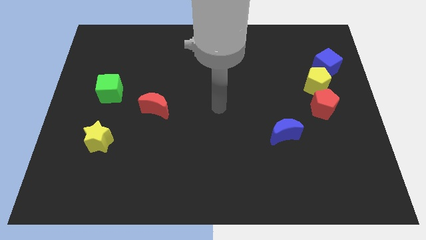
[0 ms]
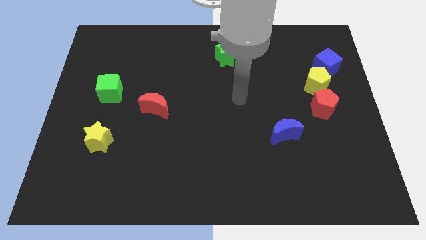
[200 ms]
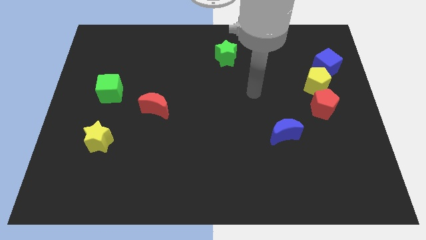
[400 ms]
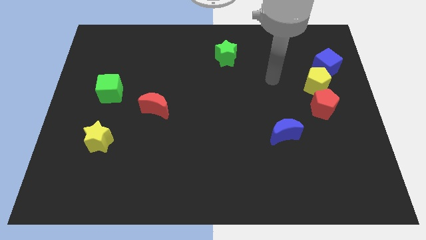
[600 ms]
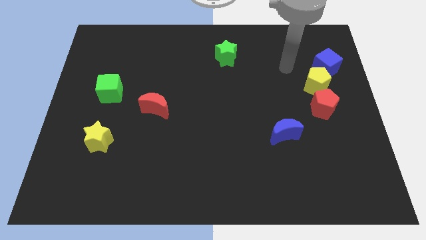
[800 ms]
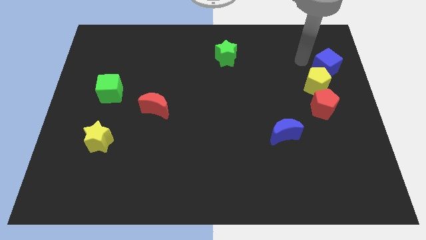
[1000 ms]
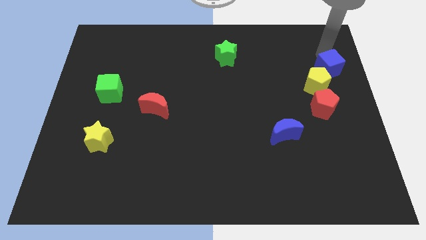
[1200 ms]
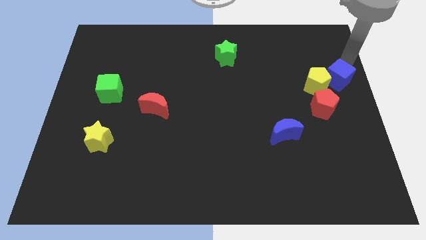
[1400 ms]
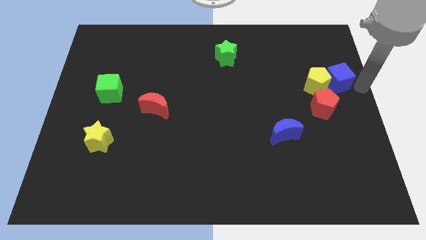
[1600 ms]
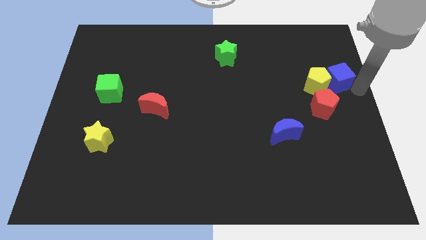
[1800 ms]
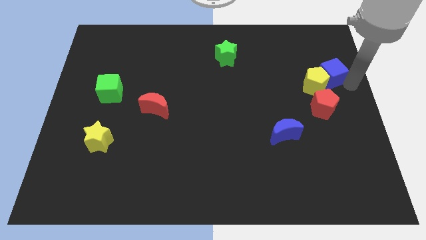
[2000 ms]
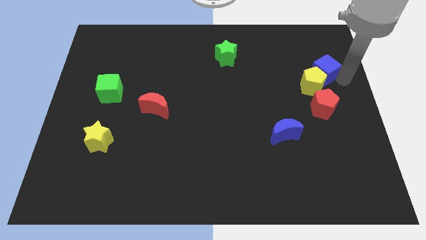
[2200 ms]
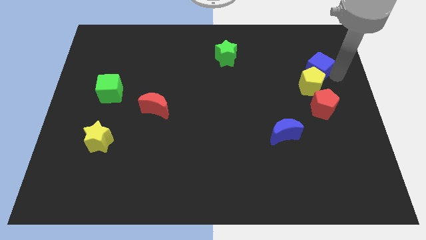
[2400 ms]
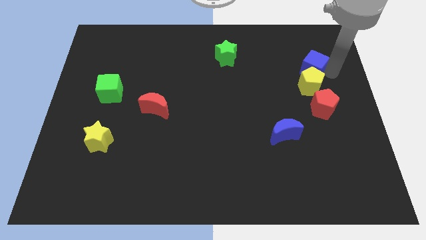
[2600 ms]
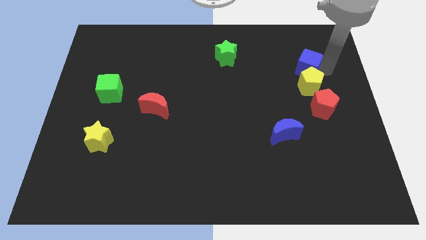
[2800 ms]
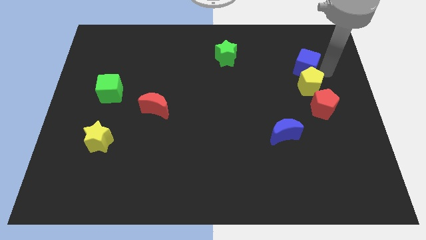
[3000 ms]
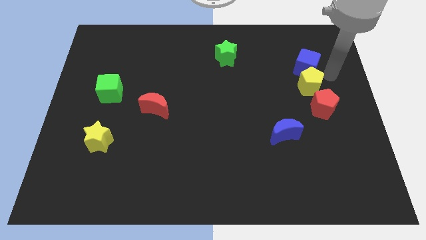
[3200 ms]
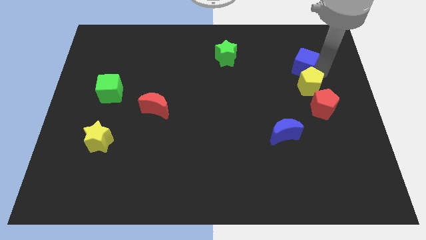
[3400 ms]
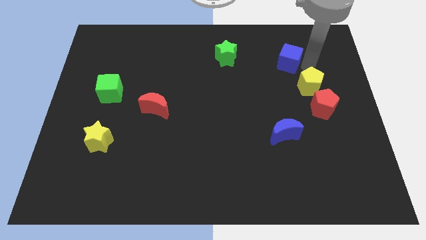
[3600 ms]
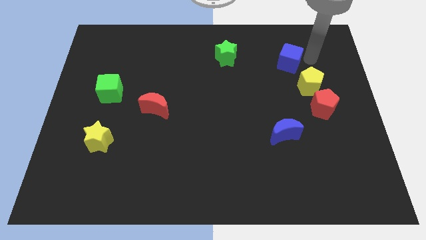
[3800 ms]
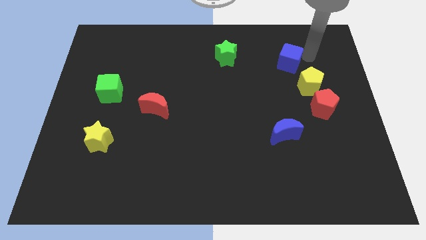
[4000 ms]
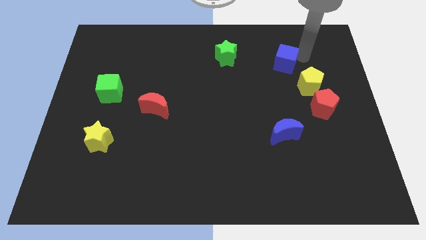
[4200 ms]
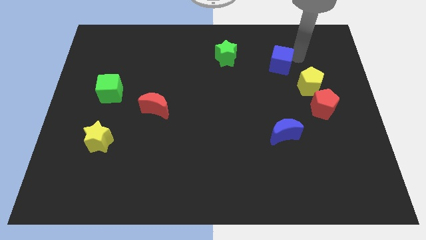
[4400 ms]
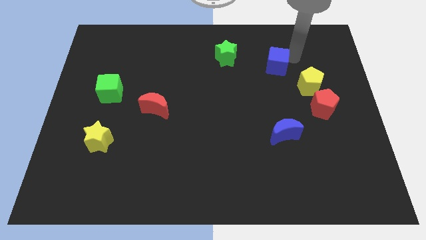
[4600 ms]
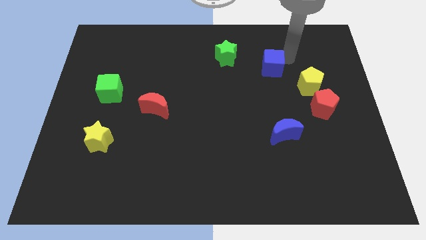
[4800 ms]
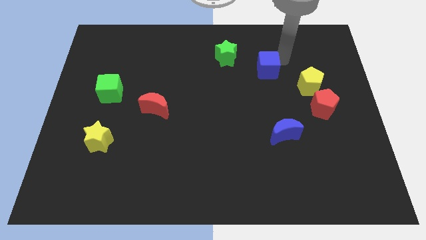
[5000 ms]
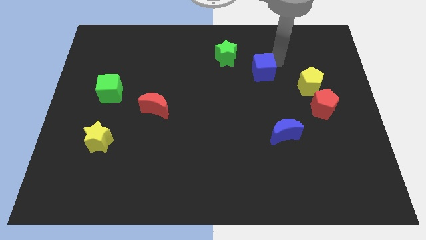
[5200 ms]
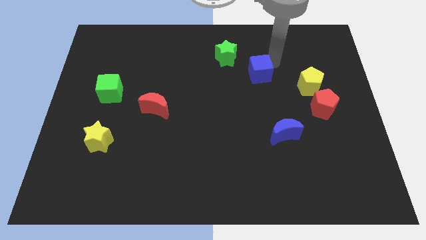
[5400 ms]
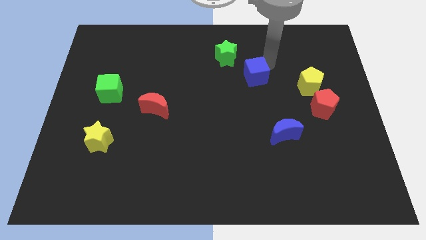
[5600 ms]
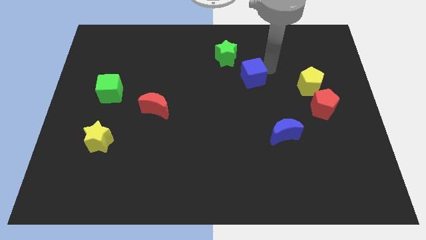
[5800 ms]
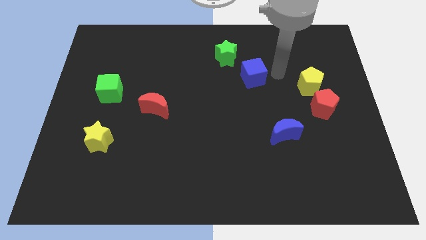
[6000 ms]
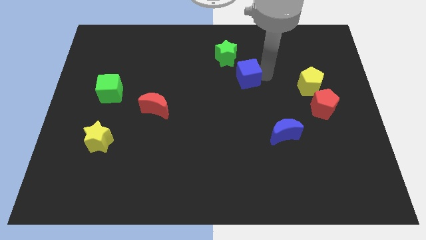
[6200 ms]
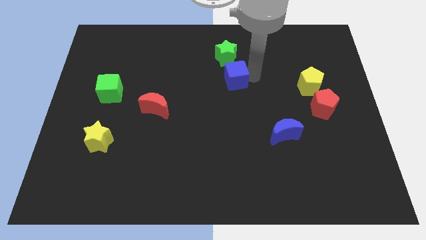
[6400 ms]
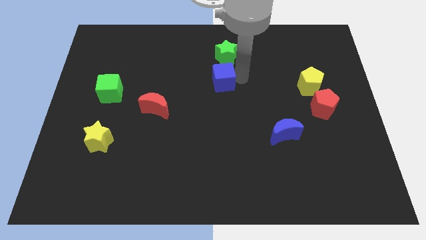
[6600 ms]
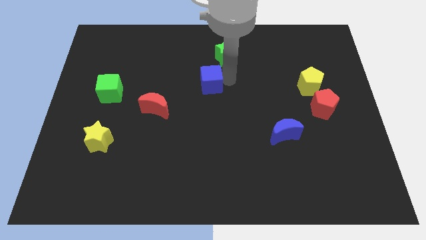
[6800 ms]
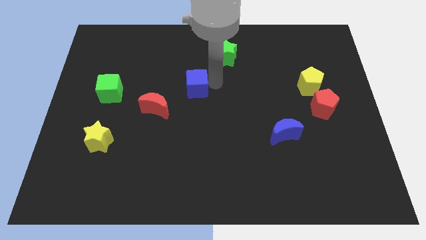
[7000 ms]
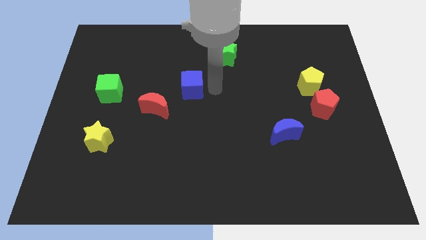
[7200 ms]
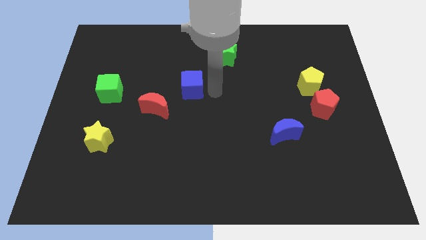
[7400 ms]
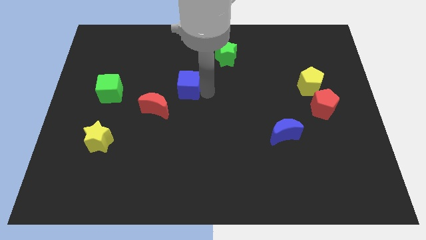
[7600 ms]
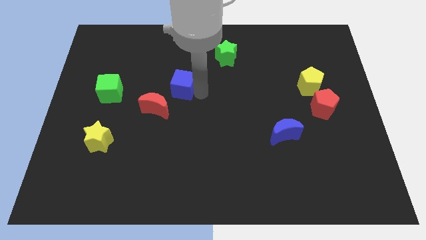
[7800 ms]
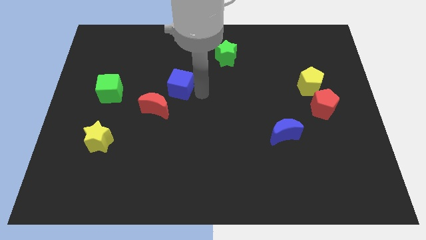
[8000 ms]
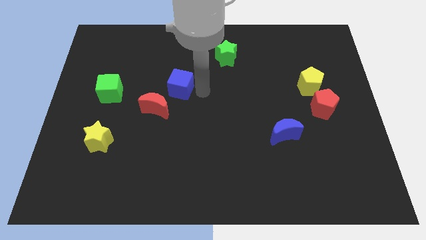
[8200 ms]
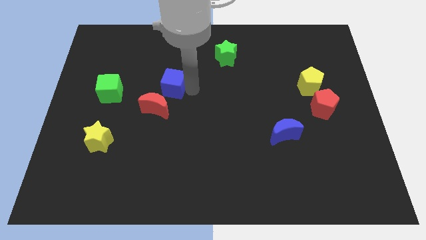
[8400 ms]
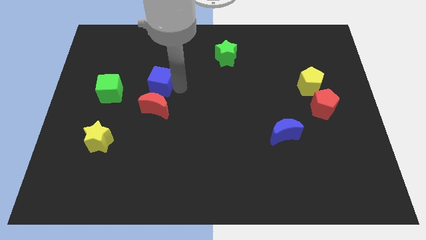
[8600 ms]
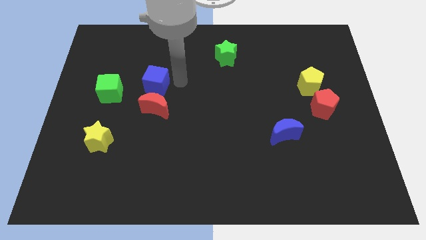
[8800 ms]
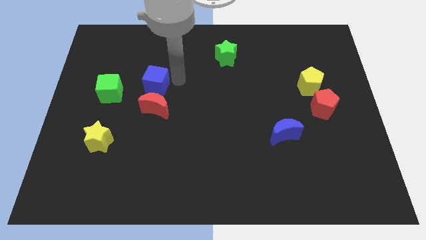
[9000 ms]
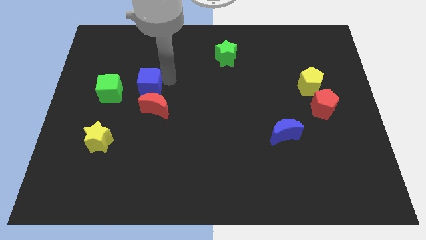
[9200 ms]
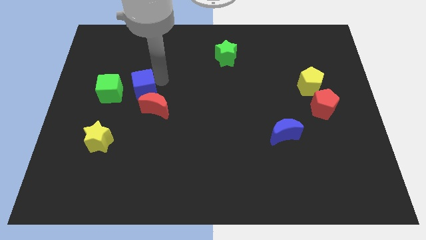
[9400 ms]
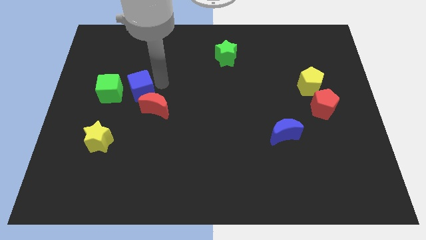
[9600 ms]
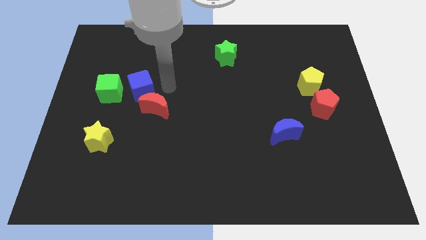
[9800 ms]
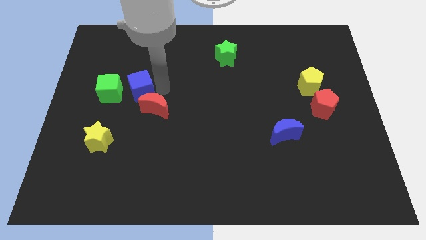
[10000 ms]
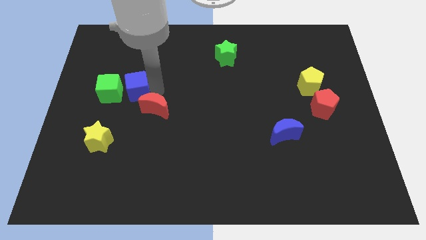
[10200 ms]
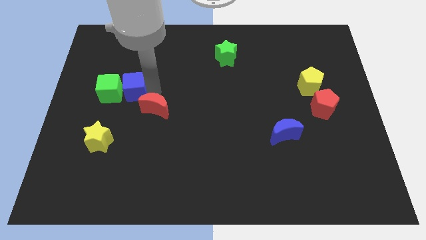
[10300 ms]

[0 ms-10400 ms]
put the blue cube next to the green cube

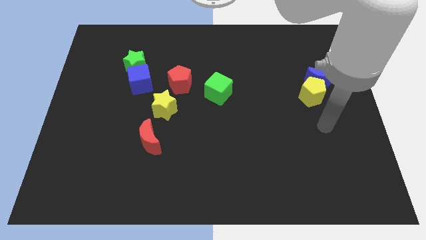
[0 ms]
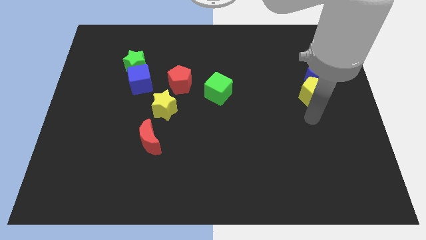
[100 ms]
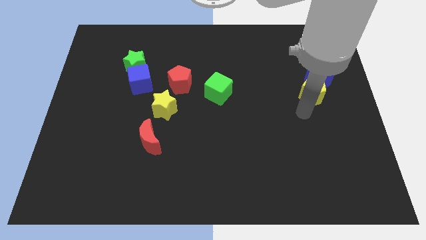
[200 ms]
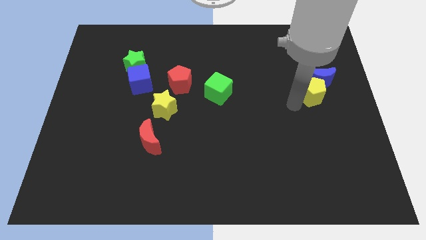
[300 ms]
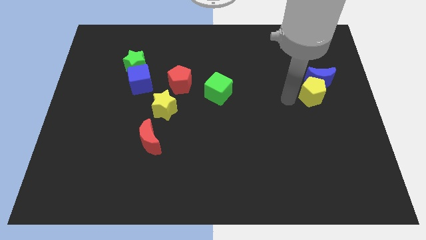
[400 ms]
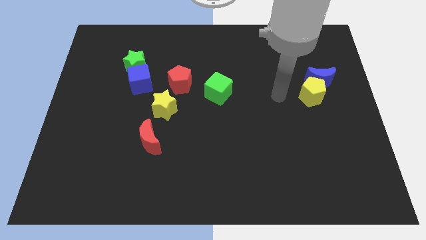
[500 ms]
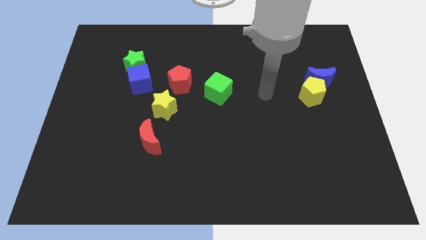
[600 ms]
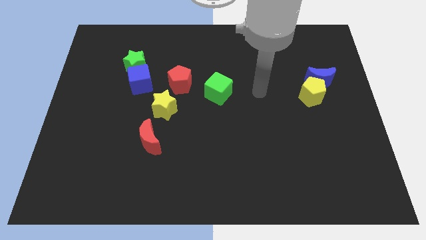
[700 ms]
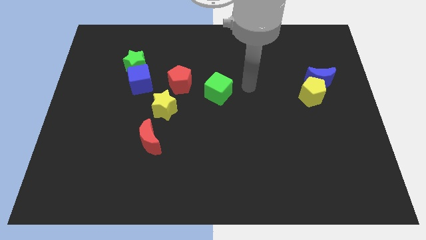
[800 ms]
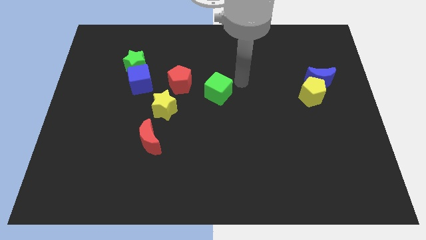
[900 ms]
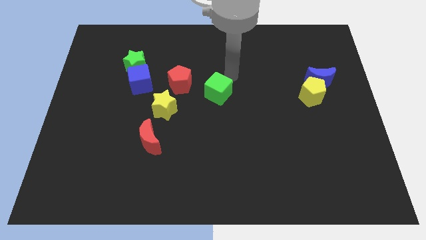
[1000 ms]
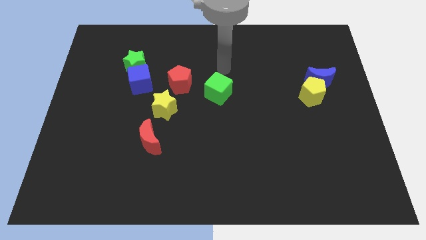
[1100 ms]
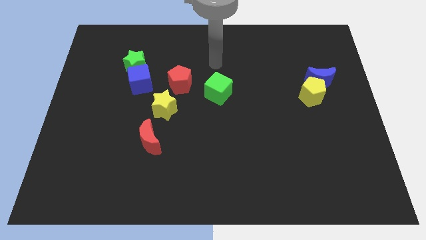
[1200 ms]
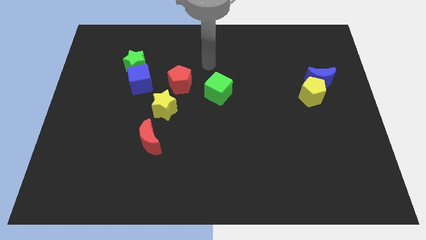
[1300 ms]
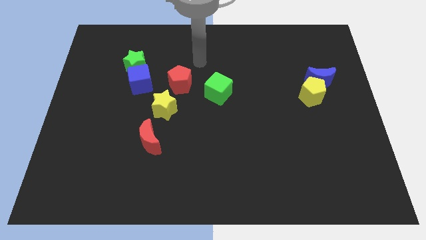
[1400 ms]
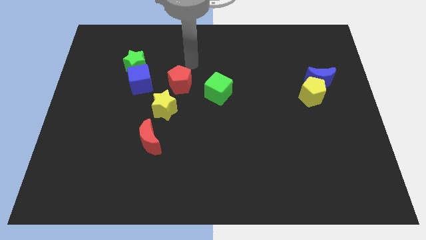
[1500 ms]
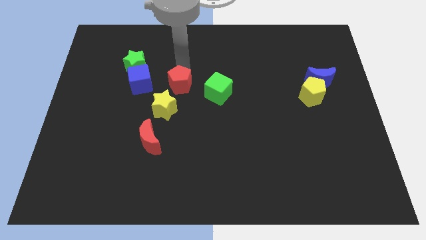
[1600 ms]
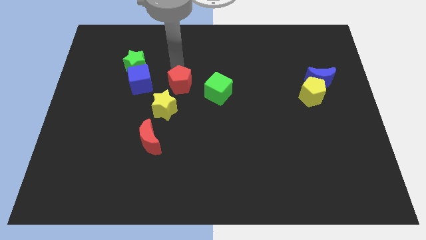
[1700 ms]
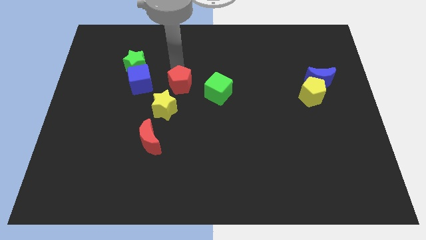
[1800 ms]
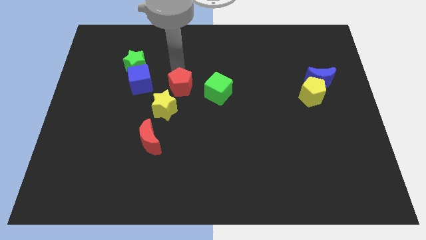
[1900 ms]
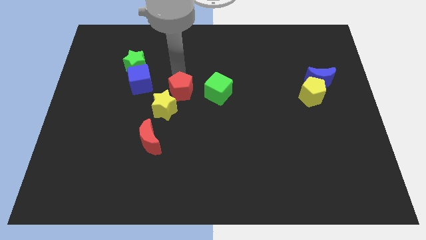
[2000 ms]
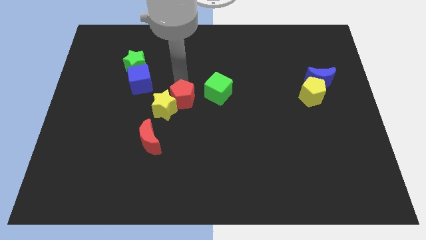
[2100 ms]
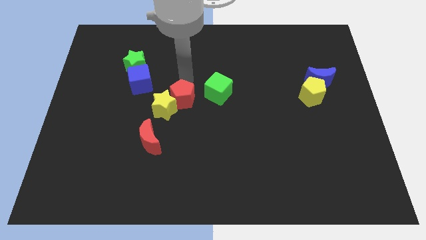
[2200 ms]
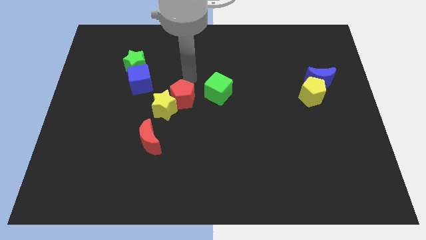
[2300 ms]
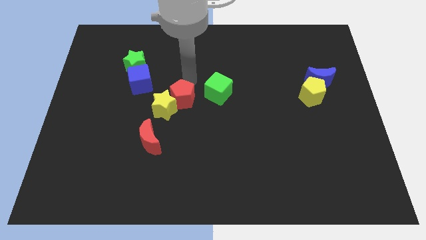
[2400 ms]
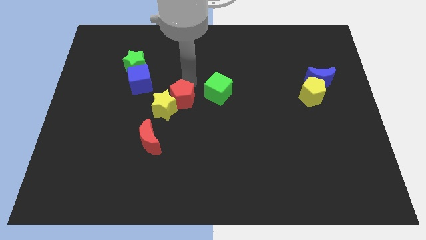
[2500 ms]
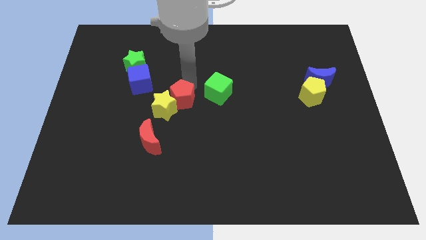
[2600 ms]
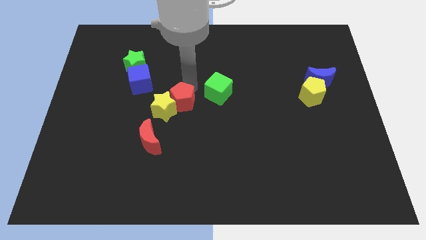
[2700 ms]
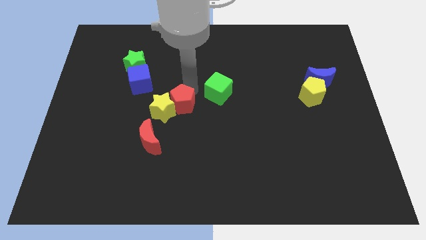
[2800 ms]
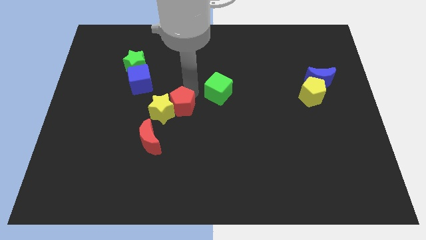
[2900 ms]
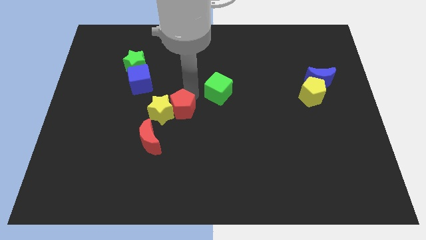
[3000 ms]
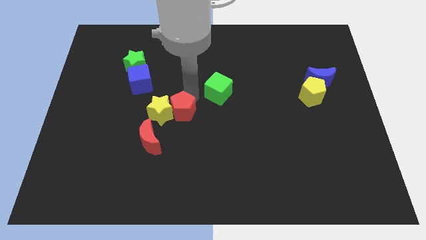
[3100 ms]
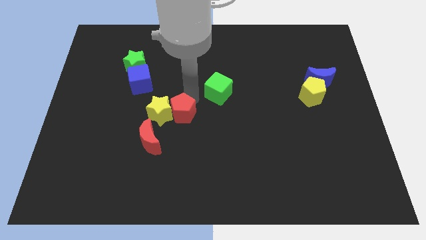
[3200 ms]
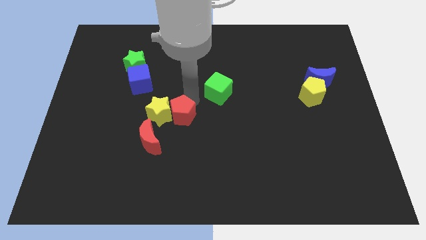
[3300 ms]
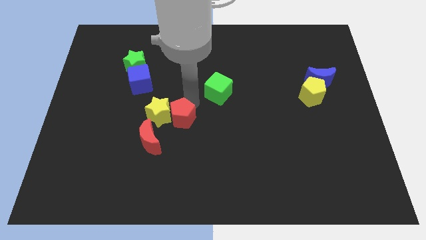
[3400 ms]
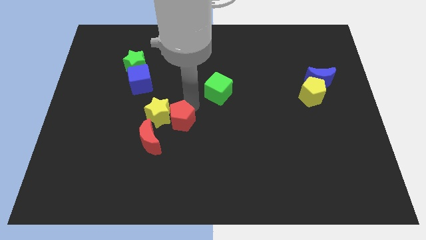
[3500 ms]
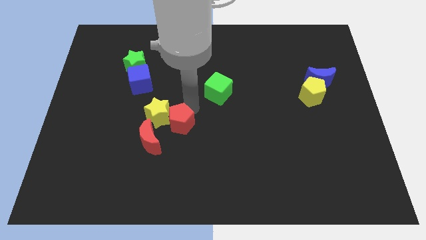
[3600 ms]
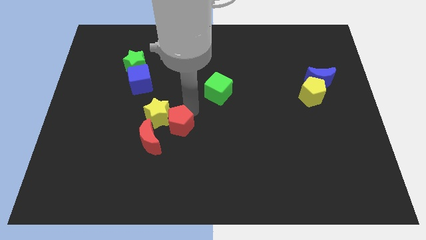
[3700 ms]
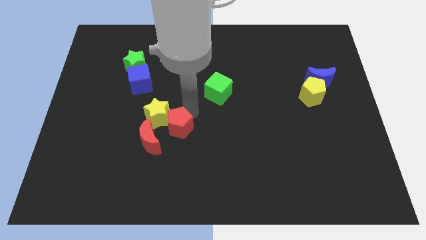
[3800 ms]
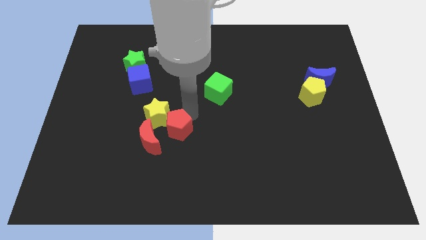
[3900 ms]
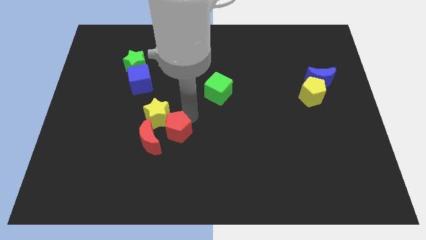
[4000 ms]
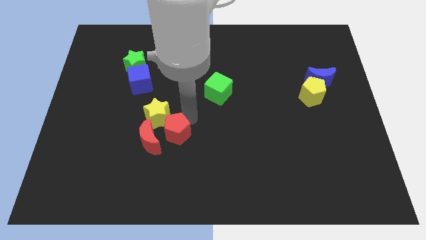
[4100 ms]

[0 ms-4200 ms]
slide the red pentagon to the red moon
